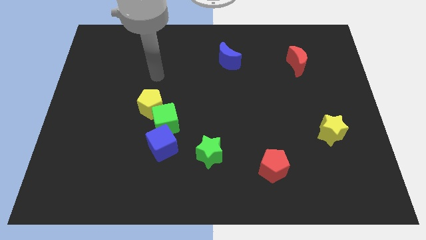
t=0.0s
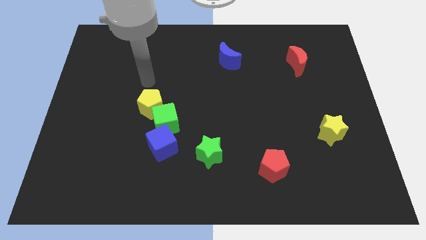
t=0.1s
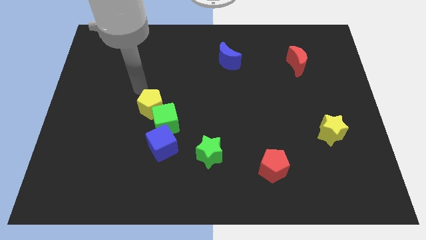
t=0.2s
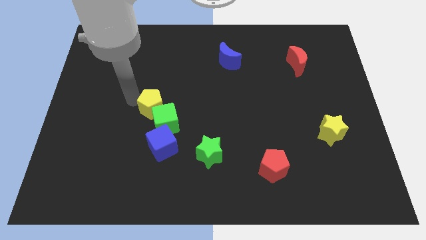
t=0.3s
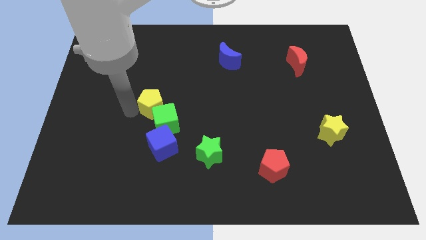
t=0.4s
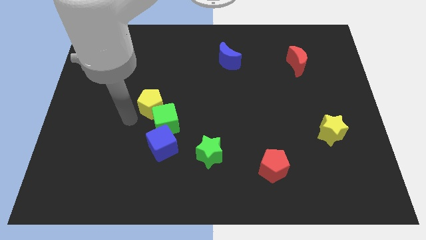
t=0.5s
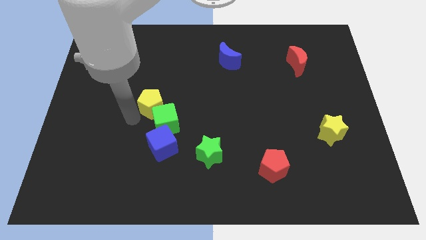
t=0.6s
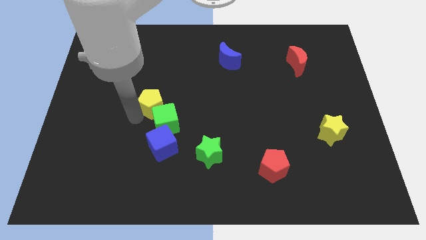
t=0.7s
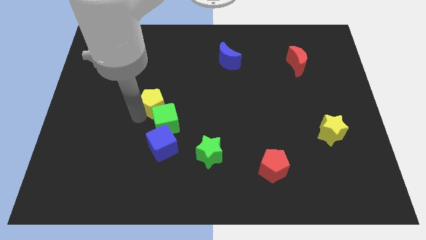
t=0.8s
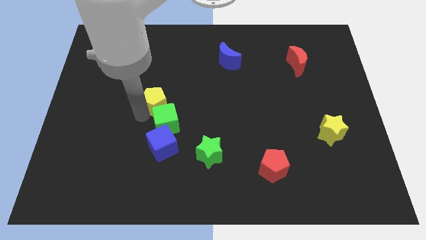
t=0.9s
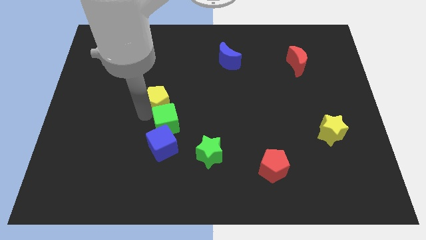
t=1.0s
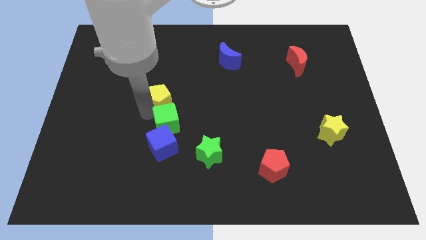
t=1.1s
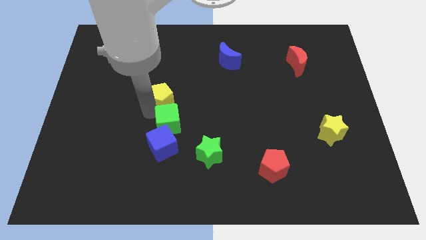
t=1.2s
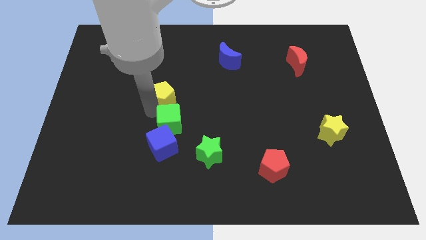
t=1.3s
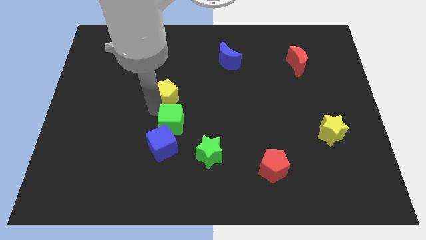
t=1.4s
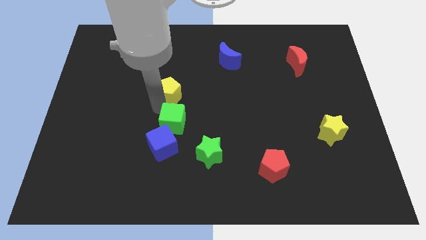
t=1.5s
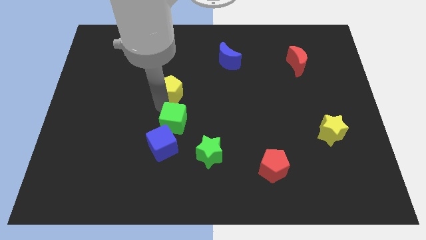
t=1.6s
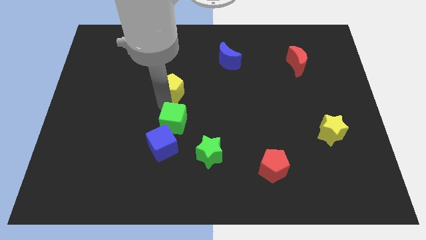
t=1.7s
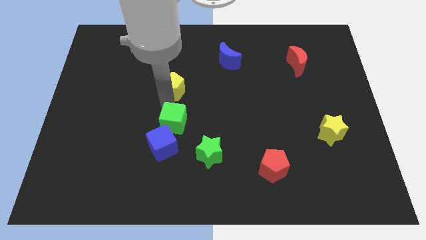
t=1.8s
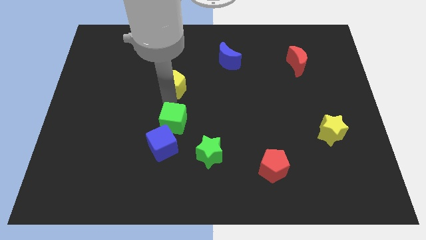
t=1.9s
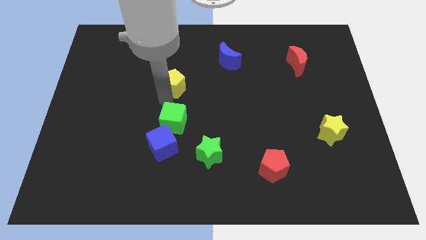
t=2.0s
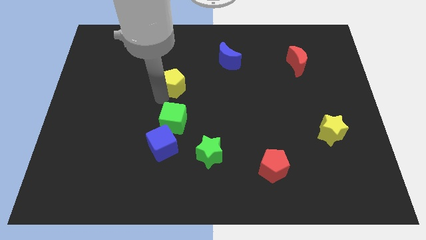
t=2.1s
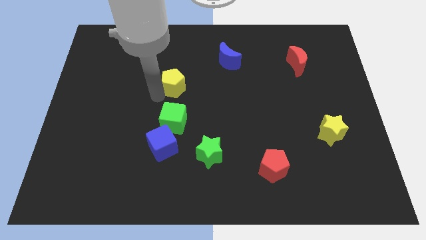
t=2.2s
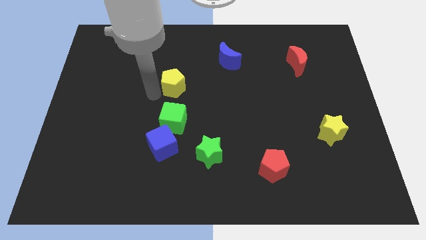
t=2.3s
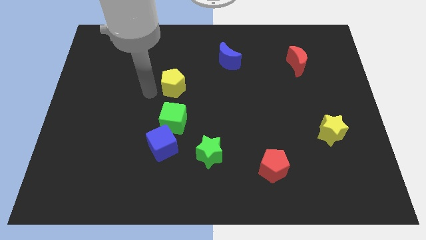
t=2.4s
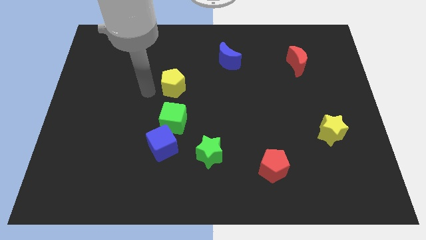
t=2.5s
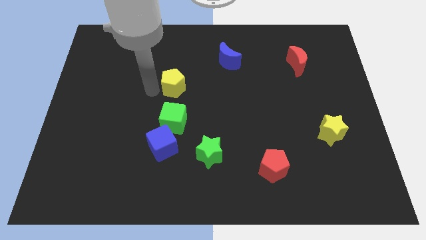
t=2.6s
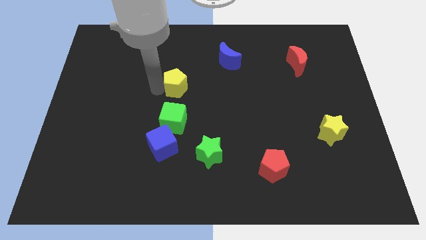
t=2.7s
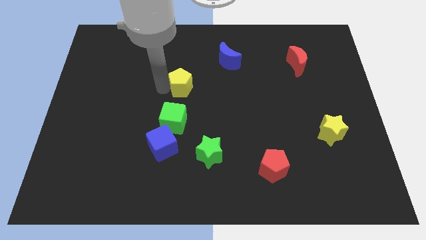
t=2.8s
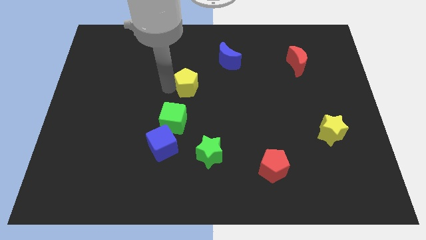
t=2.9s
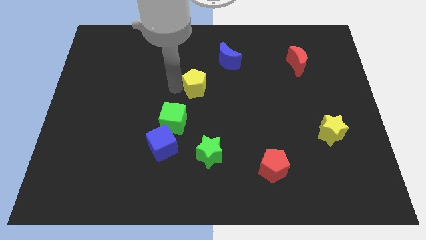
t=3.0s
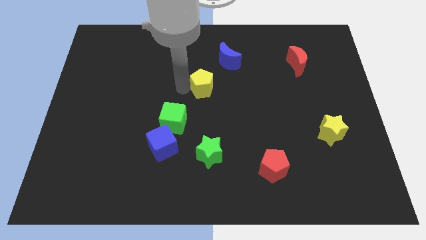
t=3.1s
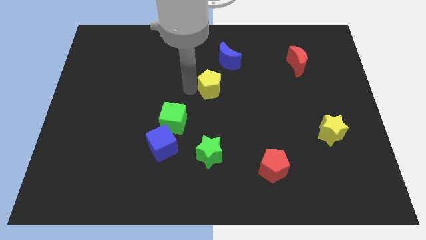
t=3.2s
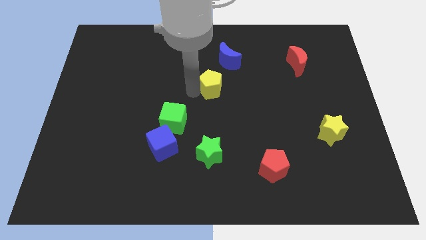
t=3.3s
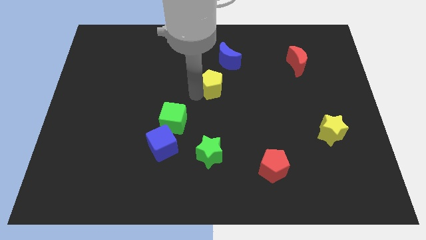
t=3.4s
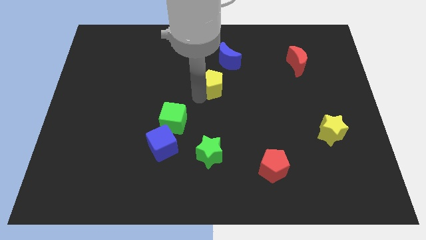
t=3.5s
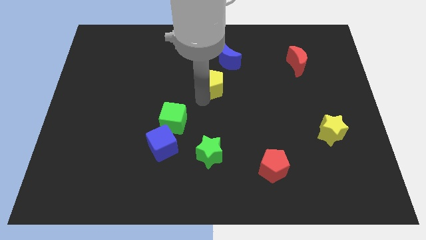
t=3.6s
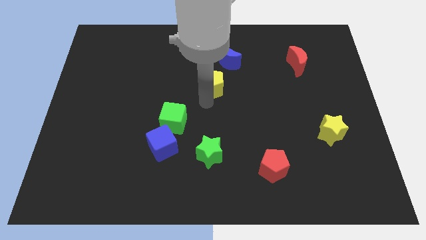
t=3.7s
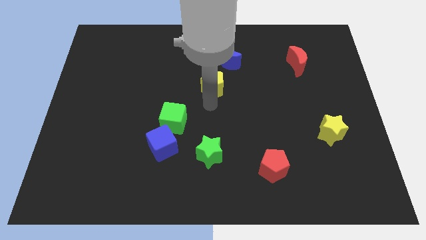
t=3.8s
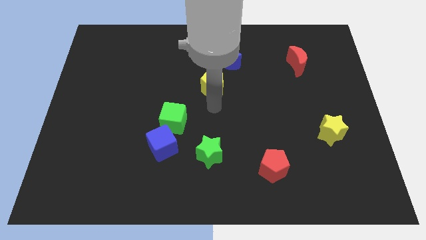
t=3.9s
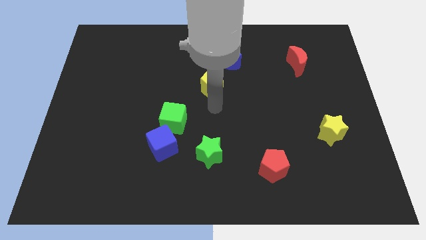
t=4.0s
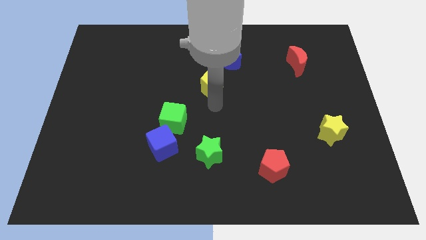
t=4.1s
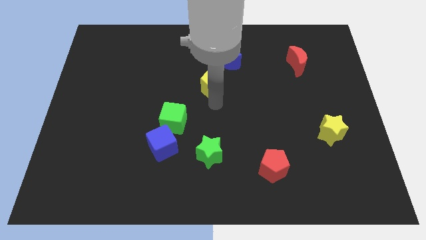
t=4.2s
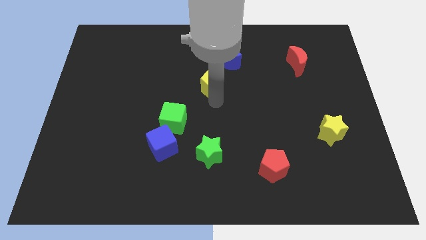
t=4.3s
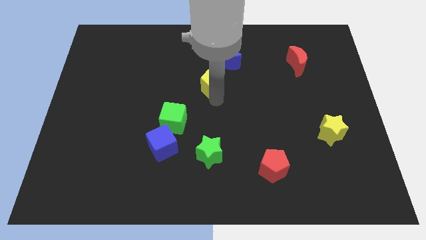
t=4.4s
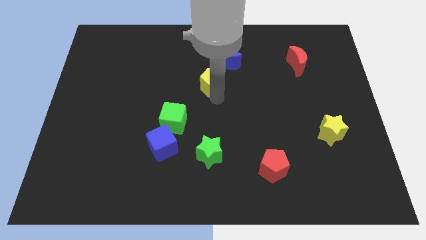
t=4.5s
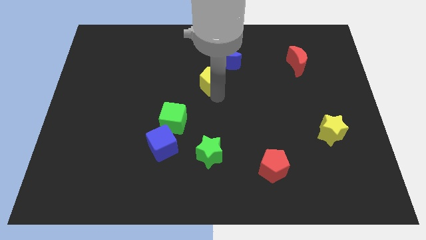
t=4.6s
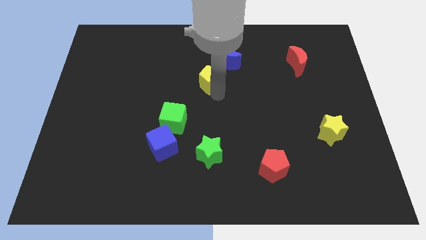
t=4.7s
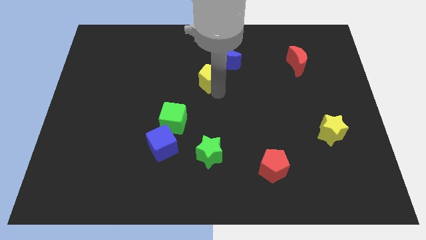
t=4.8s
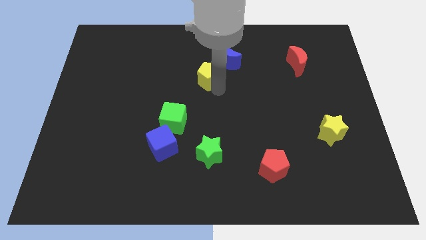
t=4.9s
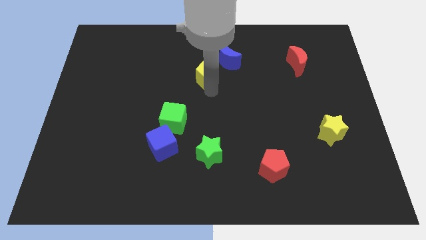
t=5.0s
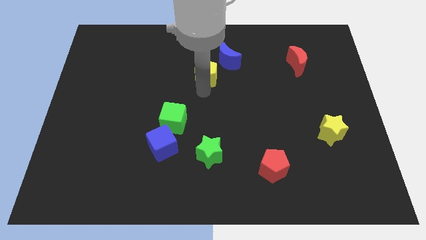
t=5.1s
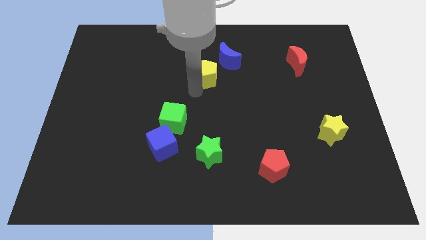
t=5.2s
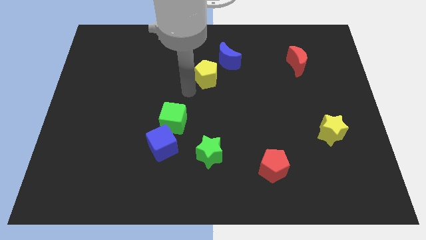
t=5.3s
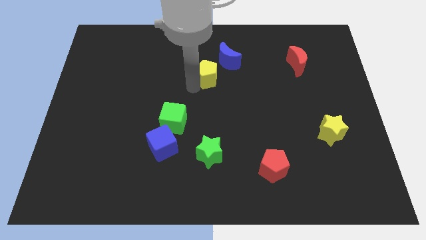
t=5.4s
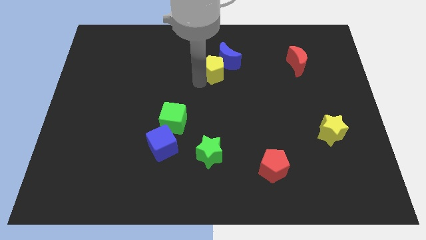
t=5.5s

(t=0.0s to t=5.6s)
push the yellow pentagon towards the blue moon

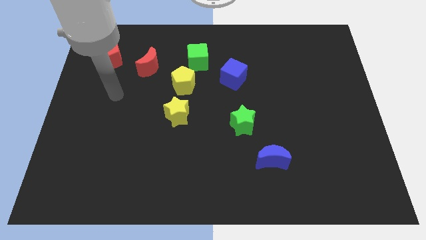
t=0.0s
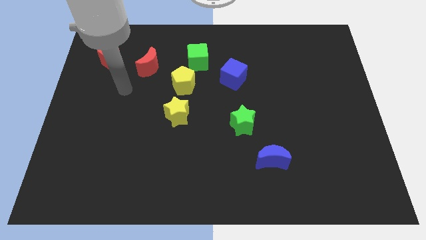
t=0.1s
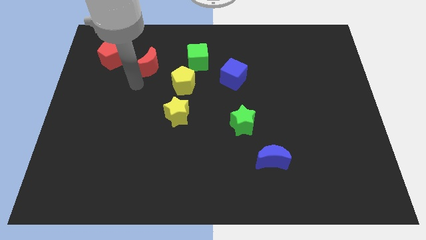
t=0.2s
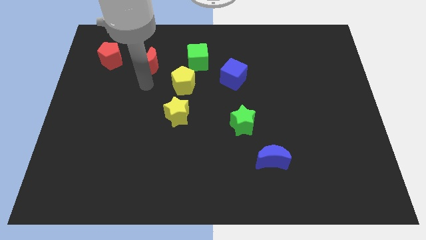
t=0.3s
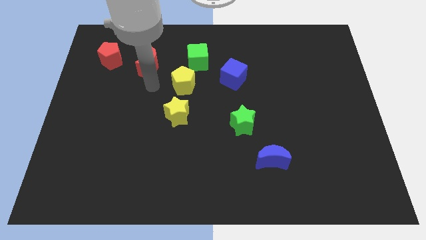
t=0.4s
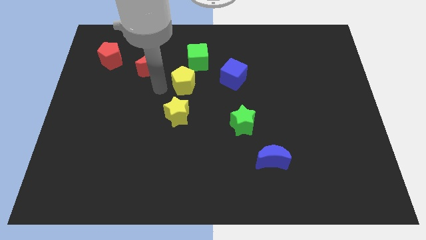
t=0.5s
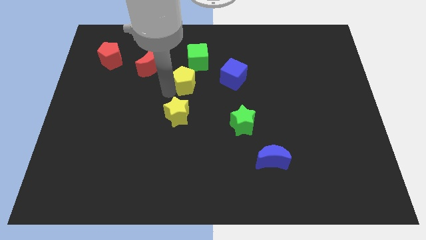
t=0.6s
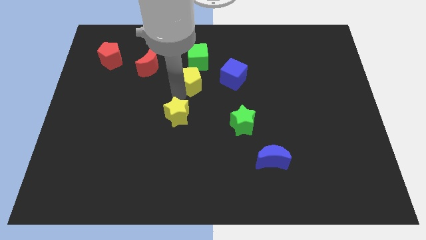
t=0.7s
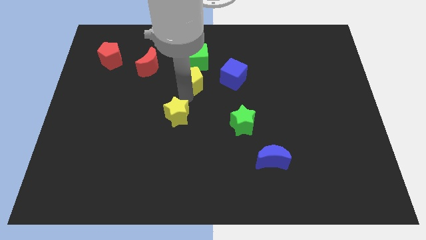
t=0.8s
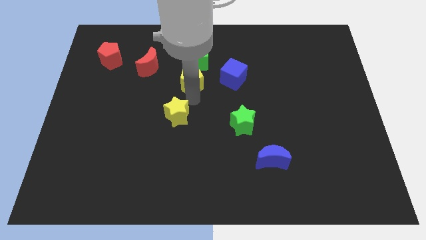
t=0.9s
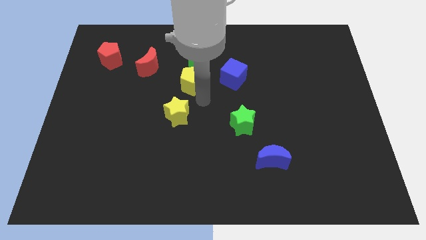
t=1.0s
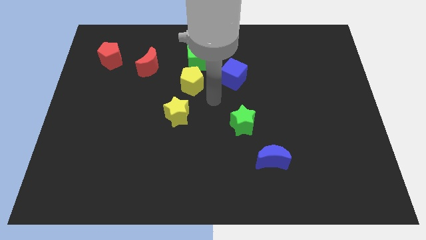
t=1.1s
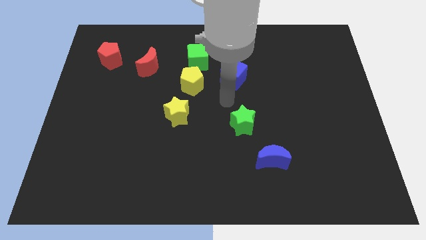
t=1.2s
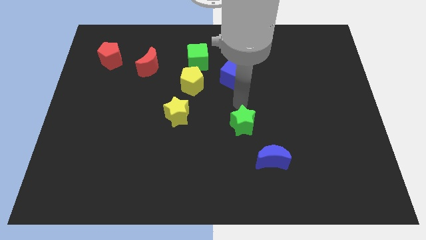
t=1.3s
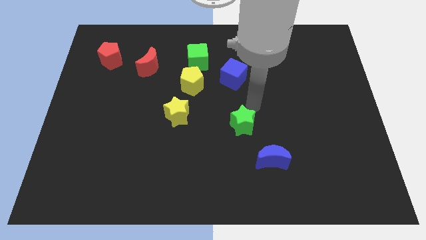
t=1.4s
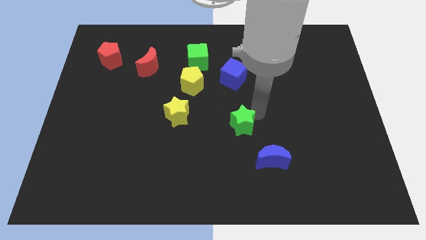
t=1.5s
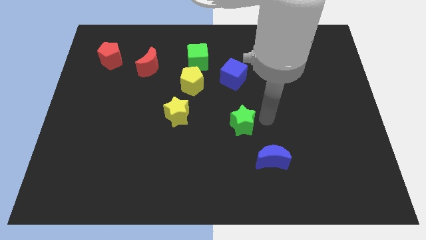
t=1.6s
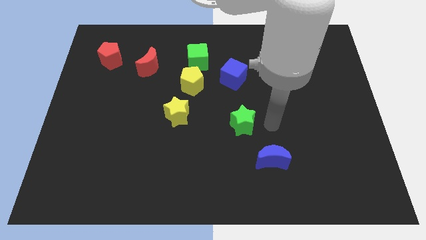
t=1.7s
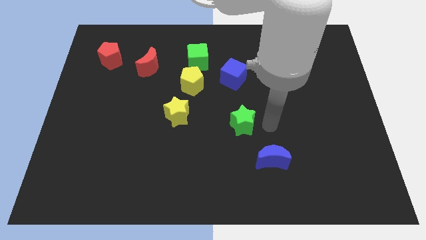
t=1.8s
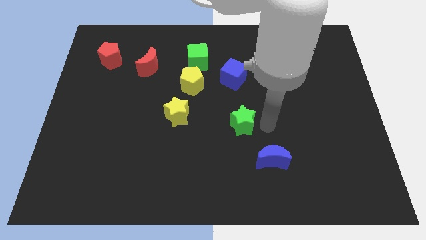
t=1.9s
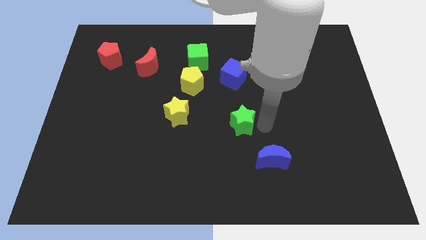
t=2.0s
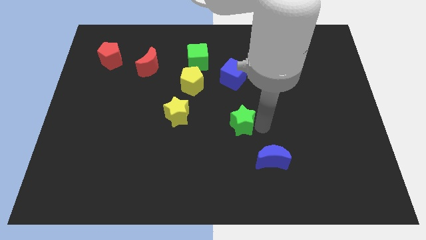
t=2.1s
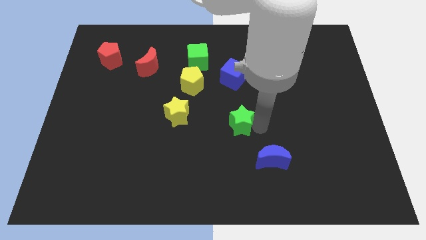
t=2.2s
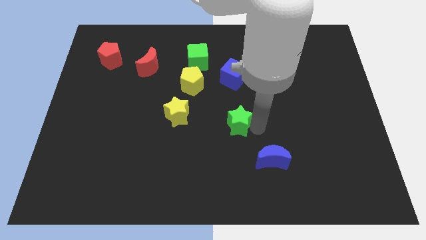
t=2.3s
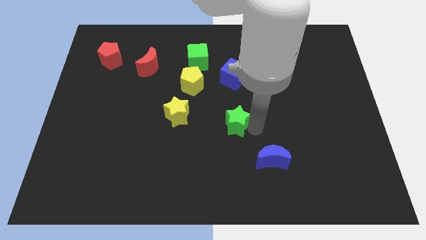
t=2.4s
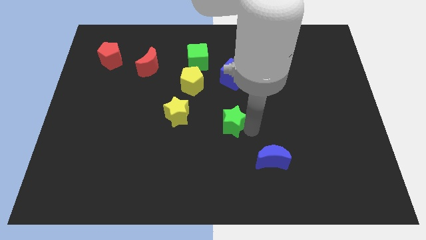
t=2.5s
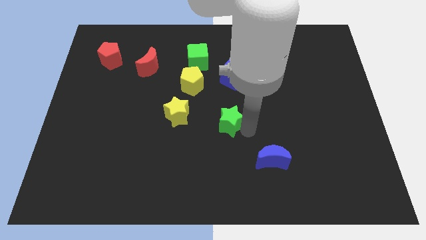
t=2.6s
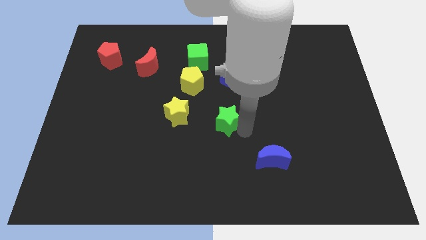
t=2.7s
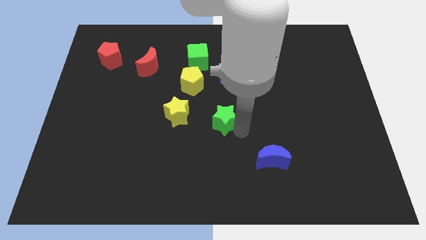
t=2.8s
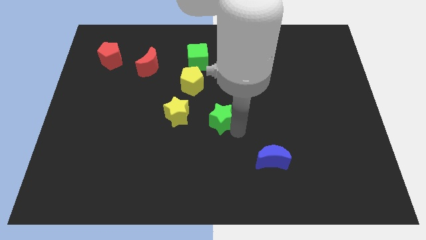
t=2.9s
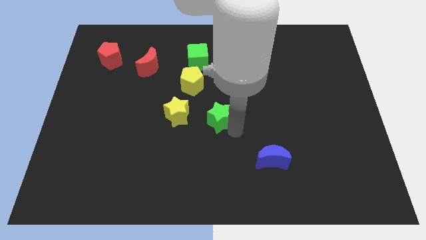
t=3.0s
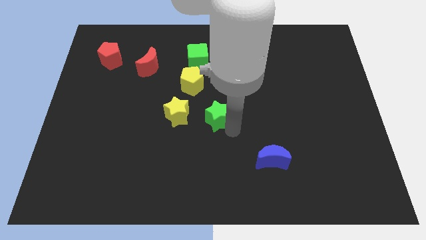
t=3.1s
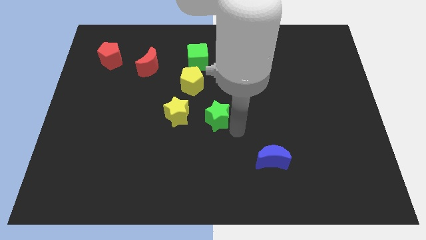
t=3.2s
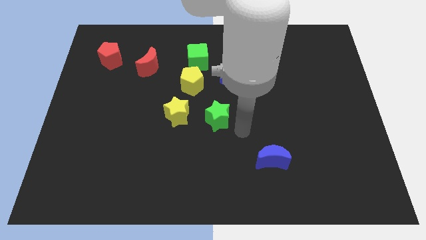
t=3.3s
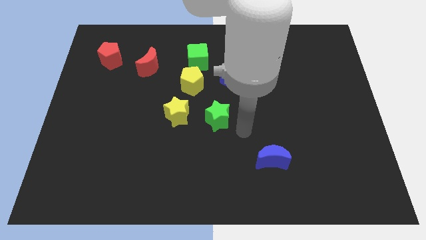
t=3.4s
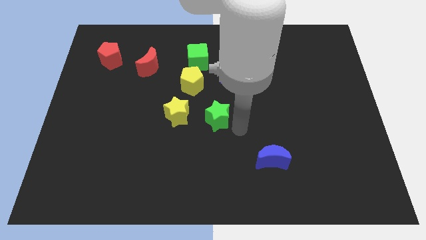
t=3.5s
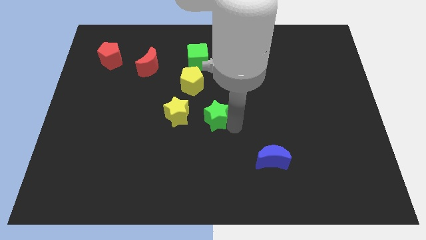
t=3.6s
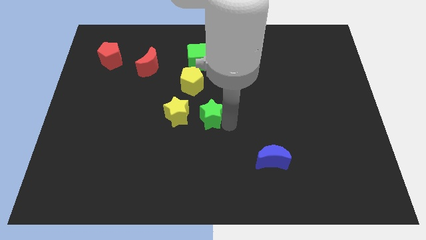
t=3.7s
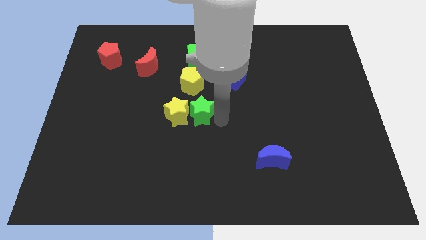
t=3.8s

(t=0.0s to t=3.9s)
move the green star next to the yellow star
